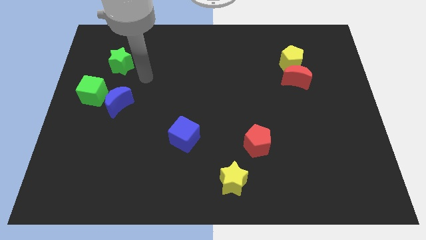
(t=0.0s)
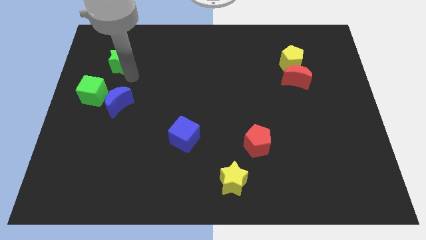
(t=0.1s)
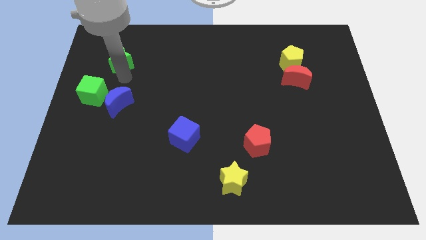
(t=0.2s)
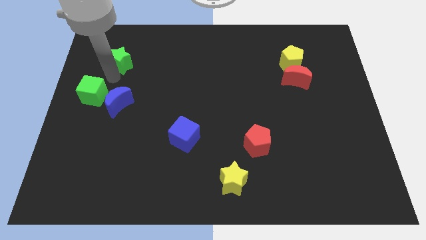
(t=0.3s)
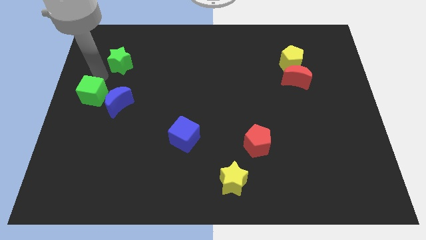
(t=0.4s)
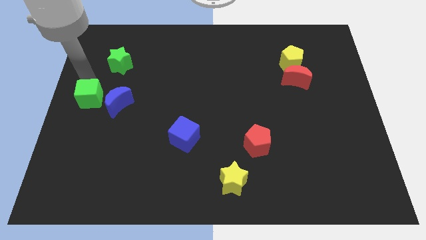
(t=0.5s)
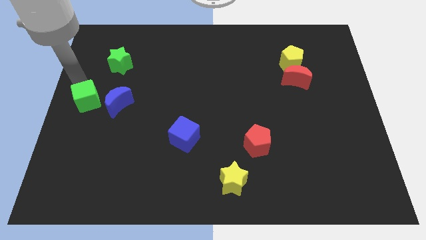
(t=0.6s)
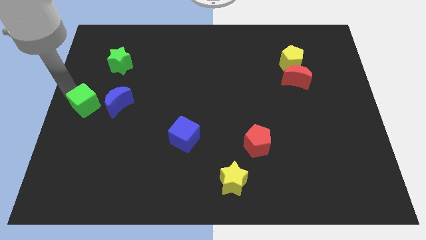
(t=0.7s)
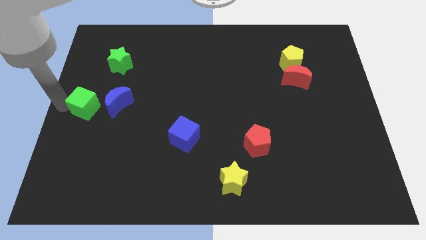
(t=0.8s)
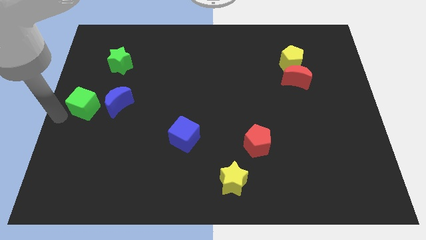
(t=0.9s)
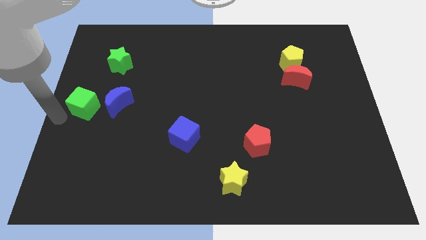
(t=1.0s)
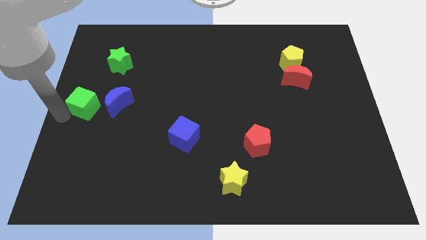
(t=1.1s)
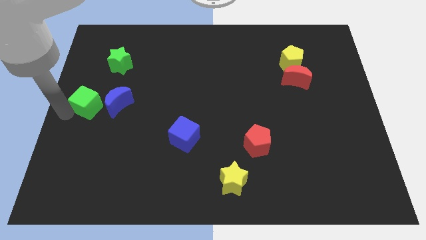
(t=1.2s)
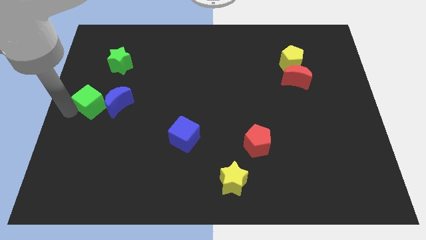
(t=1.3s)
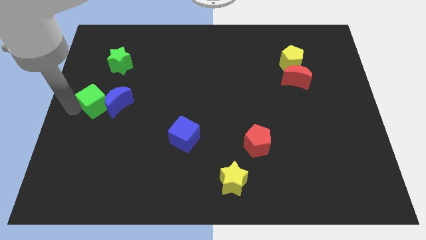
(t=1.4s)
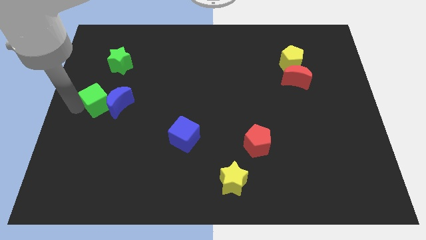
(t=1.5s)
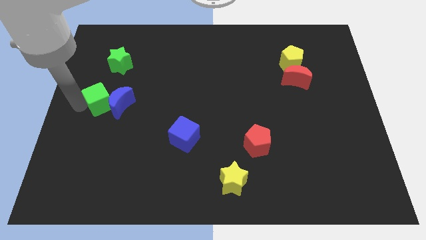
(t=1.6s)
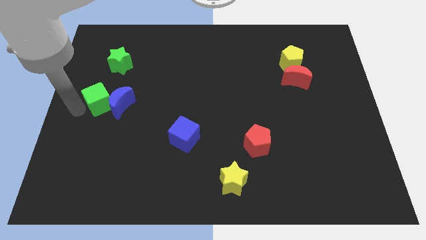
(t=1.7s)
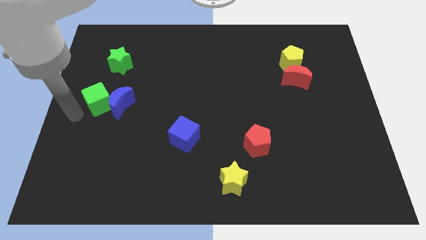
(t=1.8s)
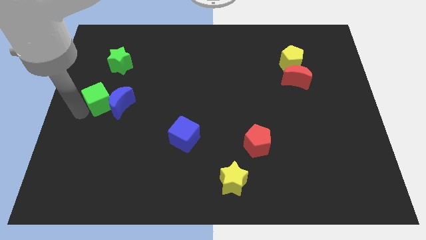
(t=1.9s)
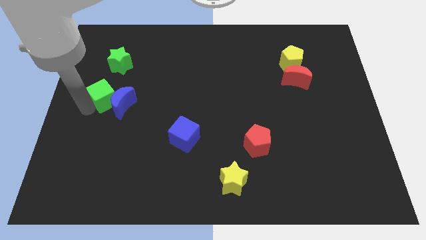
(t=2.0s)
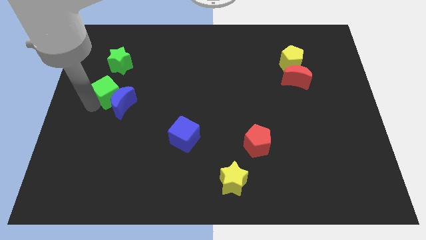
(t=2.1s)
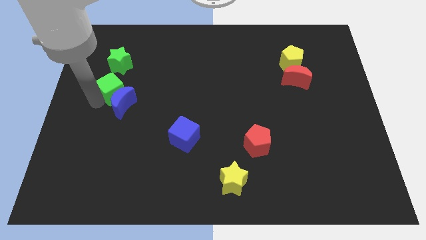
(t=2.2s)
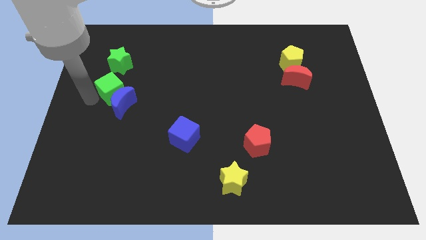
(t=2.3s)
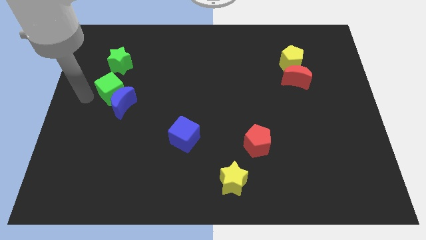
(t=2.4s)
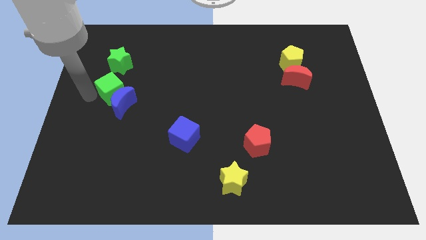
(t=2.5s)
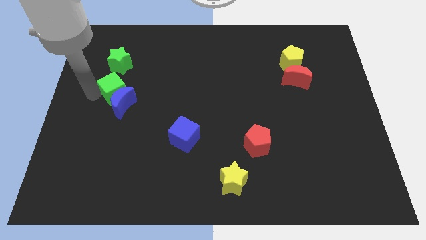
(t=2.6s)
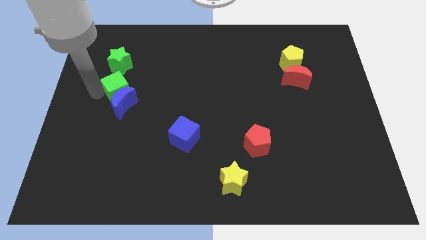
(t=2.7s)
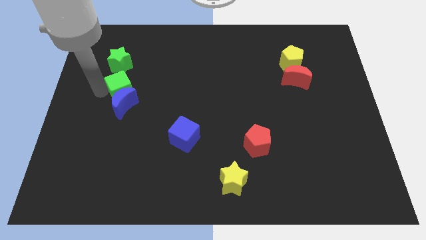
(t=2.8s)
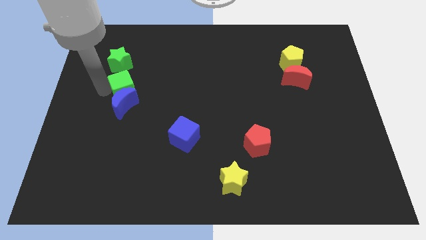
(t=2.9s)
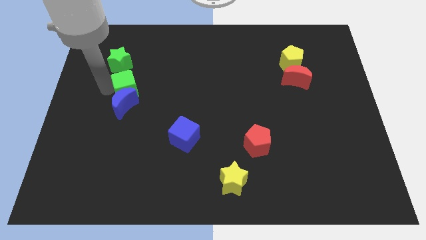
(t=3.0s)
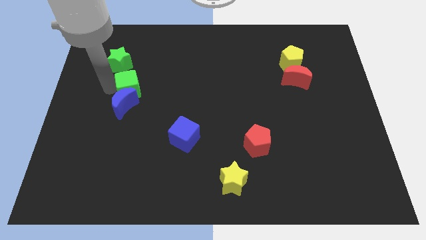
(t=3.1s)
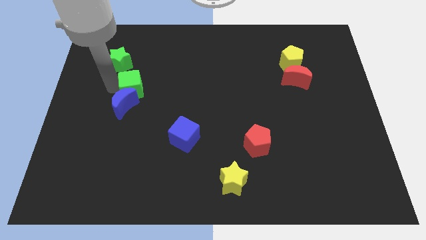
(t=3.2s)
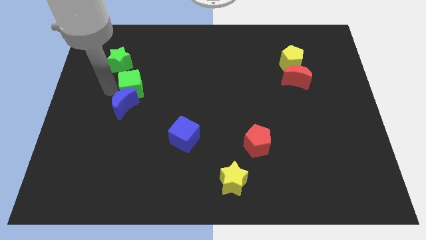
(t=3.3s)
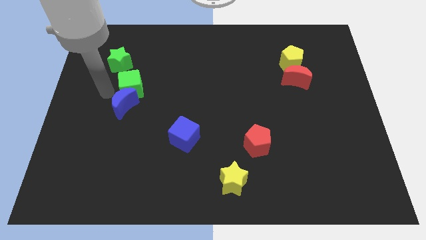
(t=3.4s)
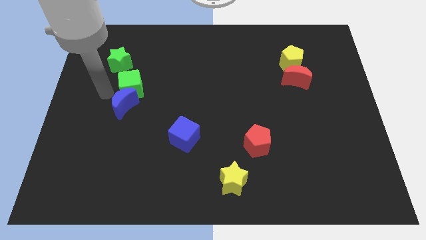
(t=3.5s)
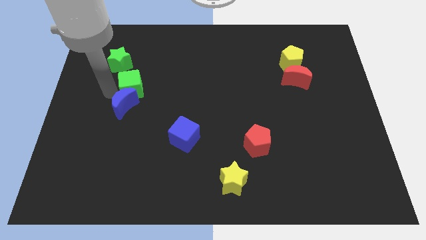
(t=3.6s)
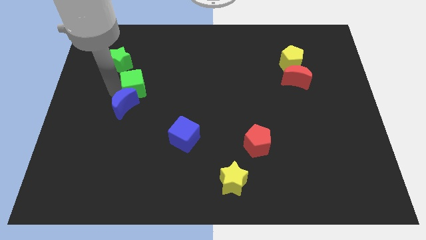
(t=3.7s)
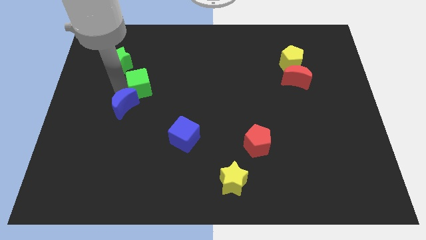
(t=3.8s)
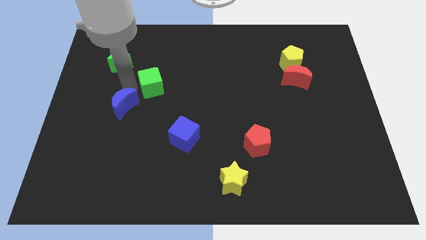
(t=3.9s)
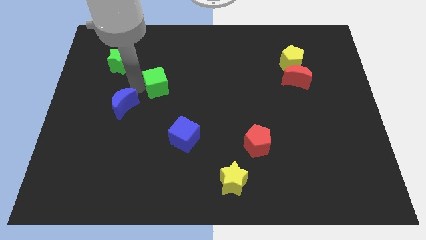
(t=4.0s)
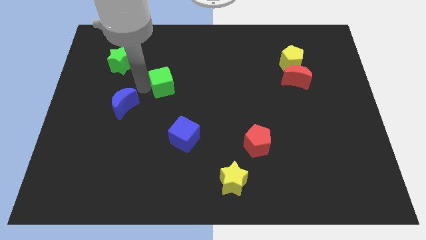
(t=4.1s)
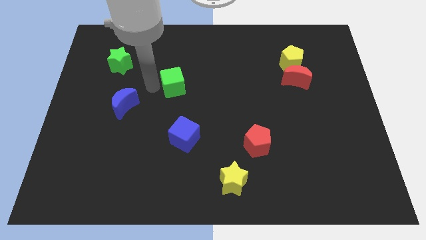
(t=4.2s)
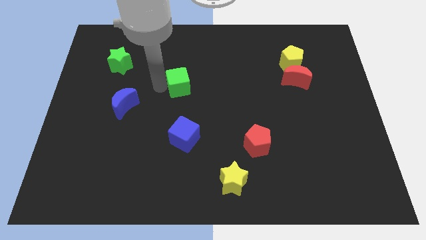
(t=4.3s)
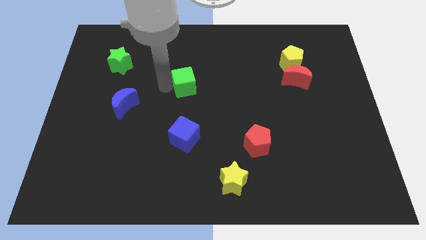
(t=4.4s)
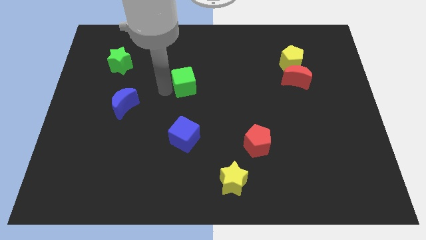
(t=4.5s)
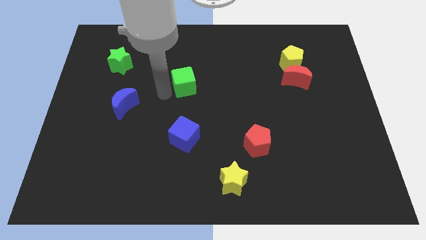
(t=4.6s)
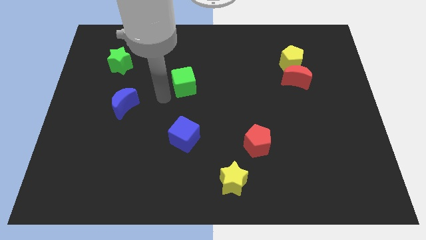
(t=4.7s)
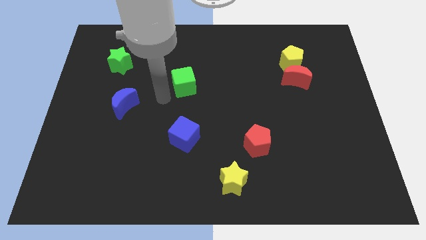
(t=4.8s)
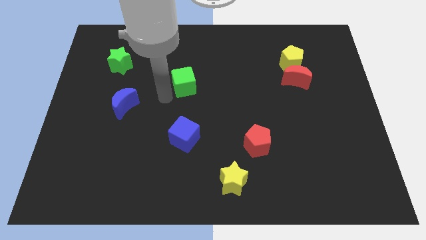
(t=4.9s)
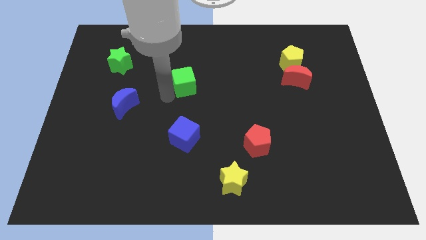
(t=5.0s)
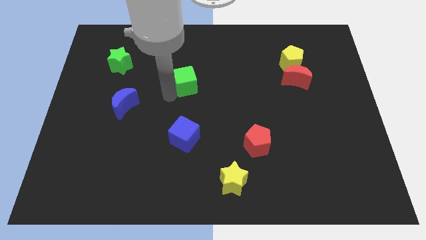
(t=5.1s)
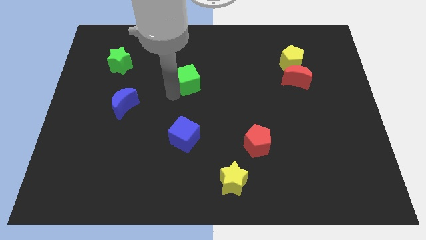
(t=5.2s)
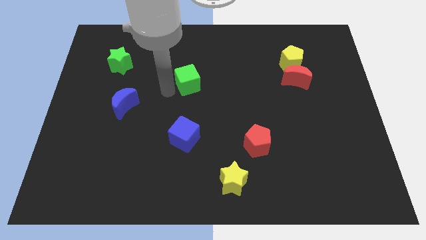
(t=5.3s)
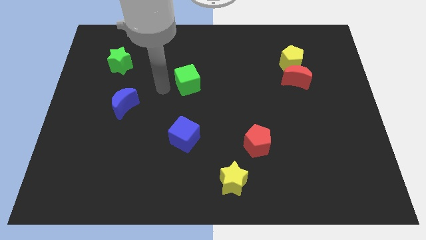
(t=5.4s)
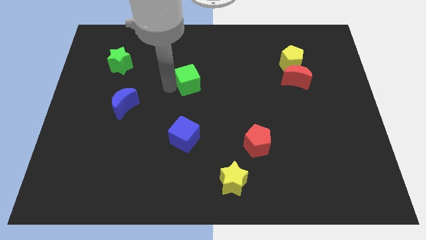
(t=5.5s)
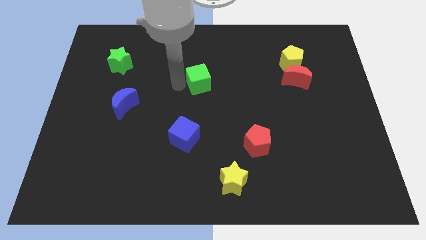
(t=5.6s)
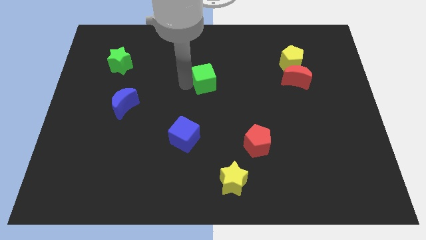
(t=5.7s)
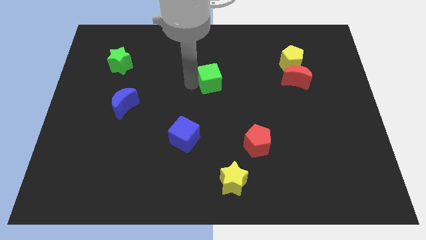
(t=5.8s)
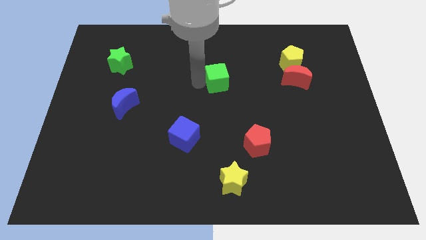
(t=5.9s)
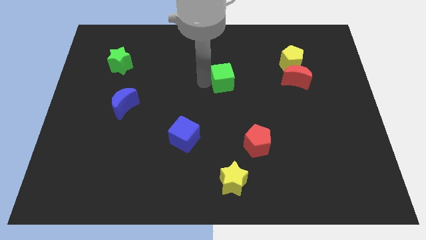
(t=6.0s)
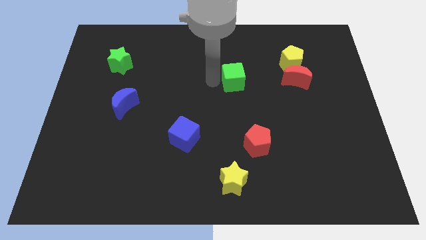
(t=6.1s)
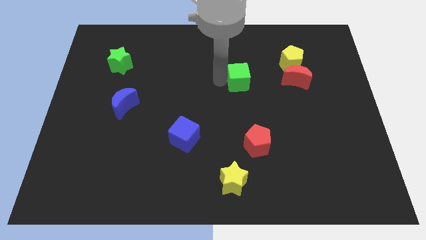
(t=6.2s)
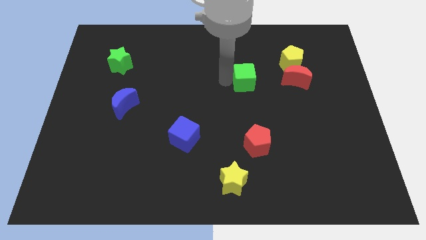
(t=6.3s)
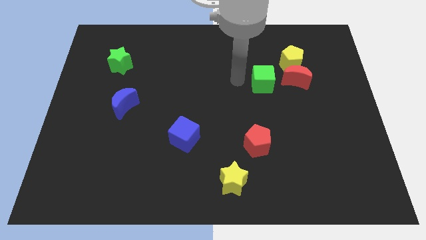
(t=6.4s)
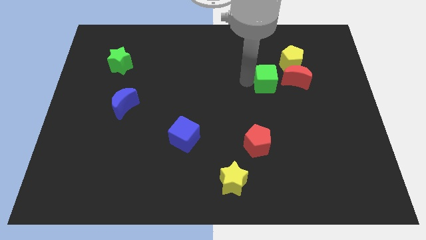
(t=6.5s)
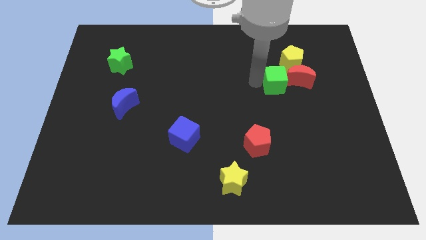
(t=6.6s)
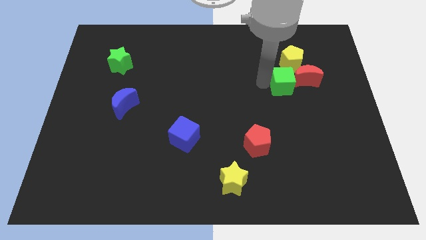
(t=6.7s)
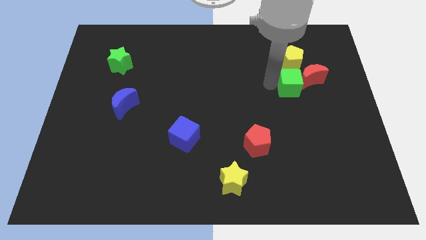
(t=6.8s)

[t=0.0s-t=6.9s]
slide the green cube close to the red moon
